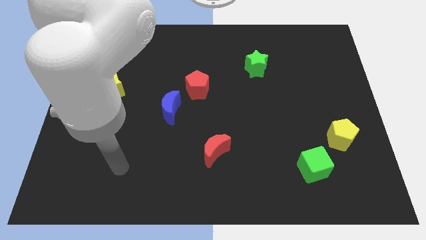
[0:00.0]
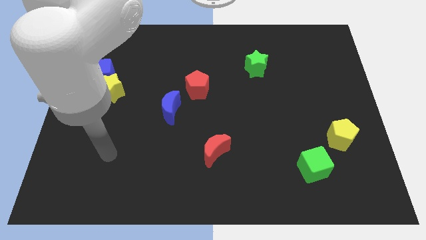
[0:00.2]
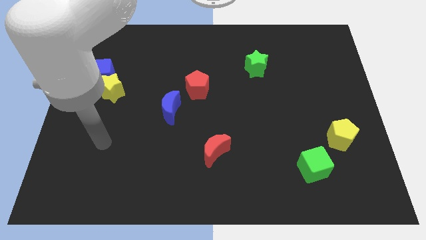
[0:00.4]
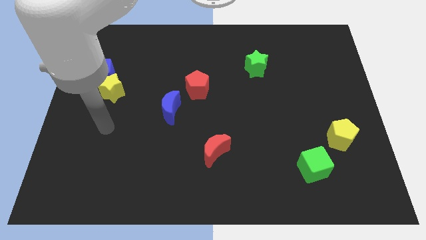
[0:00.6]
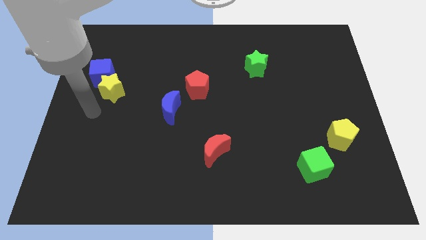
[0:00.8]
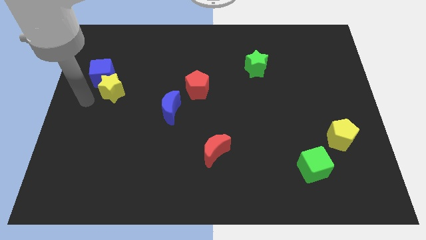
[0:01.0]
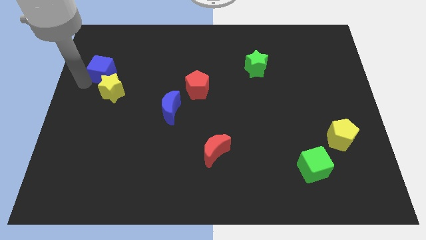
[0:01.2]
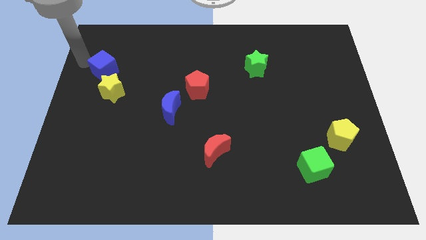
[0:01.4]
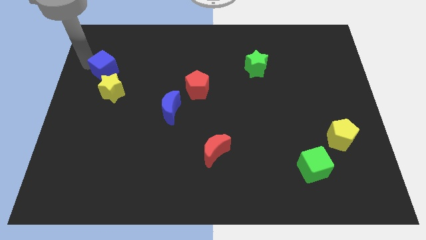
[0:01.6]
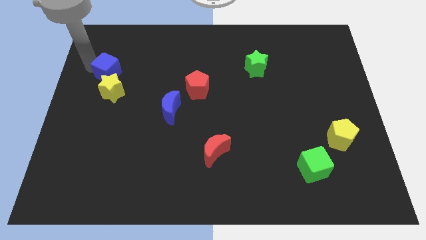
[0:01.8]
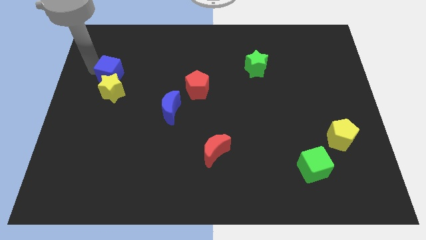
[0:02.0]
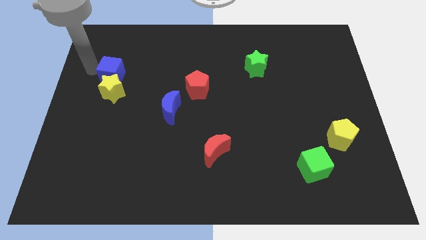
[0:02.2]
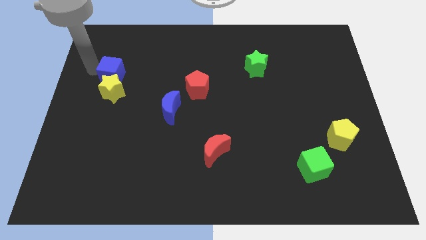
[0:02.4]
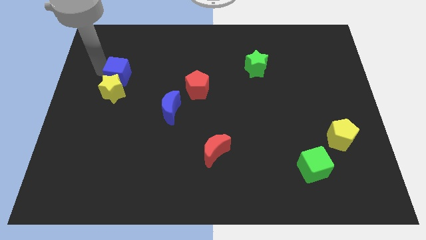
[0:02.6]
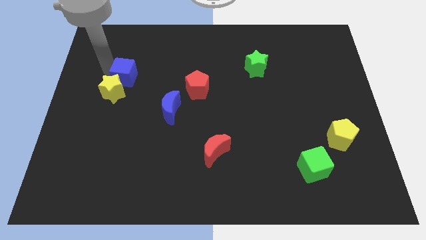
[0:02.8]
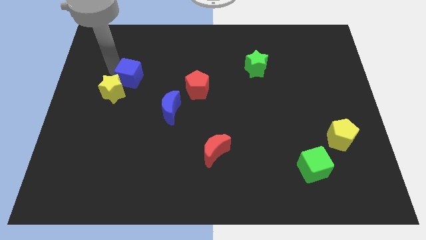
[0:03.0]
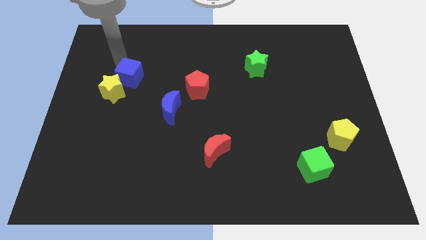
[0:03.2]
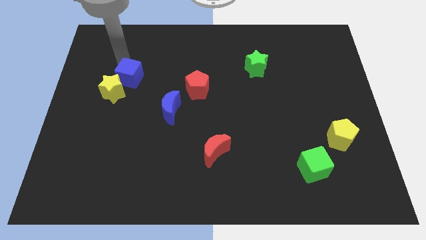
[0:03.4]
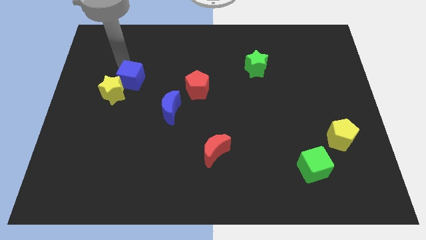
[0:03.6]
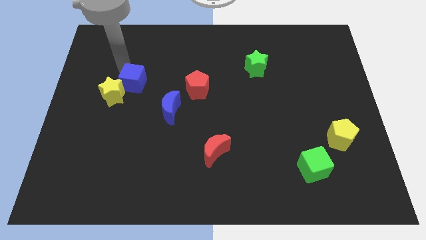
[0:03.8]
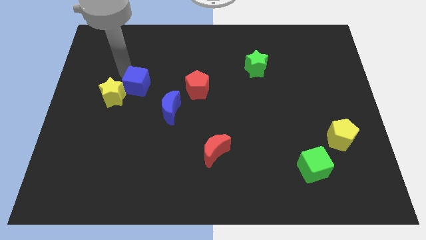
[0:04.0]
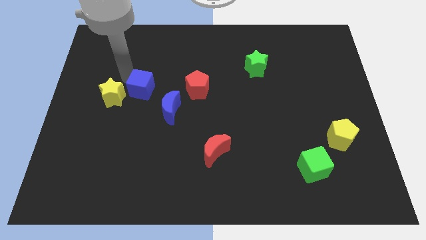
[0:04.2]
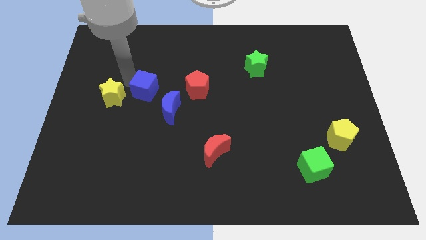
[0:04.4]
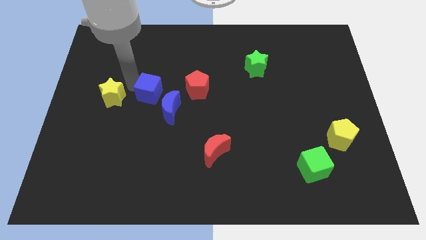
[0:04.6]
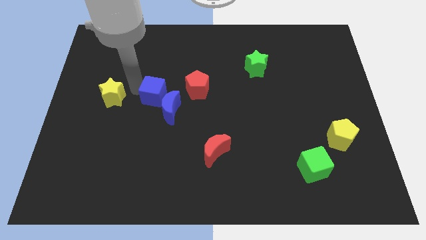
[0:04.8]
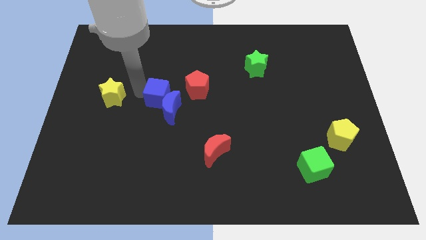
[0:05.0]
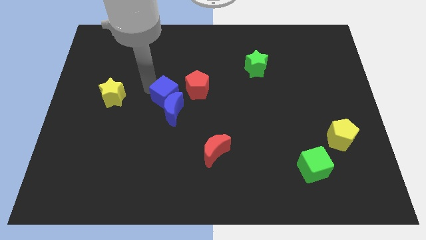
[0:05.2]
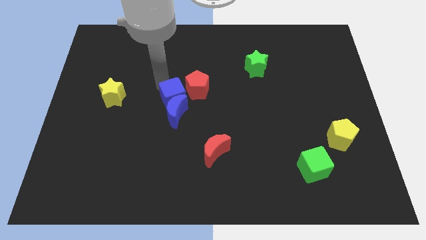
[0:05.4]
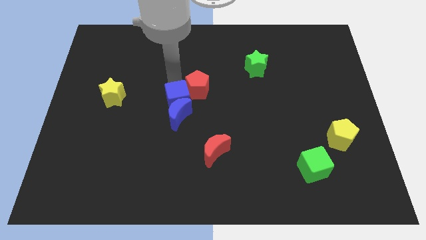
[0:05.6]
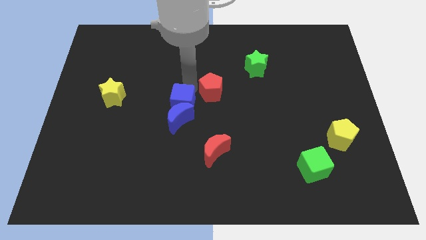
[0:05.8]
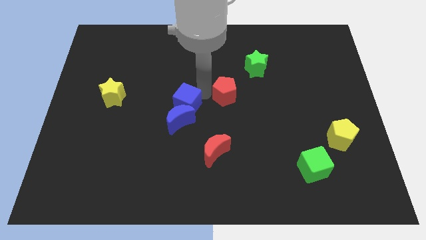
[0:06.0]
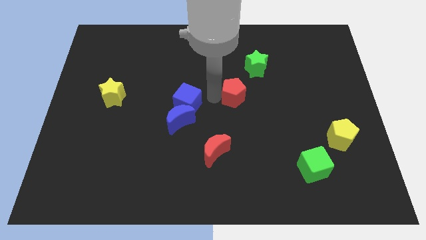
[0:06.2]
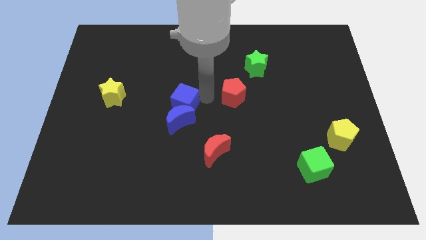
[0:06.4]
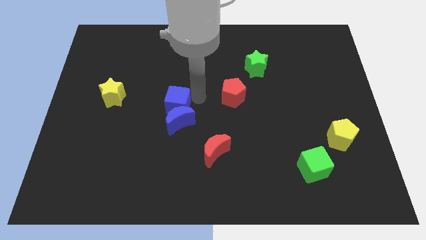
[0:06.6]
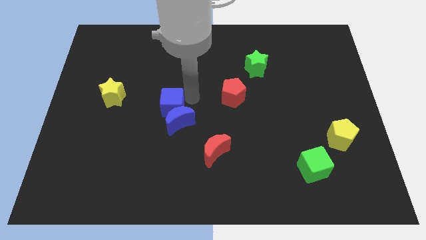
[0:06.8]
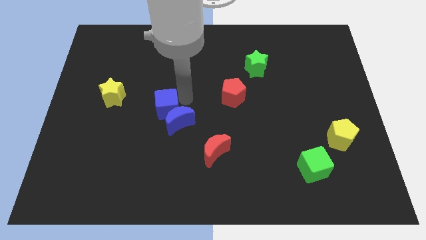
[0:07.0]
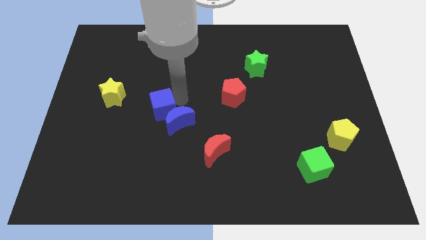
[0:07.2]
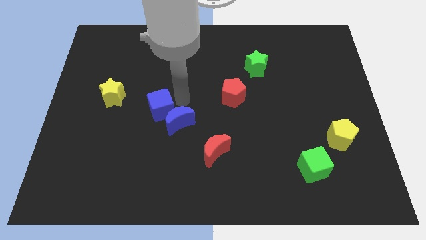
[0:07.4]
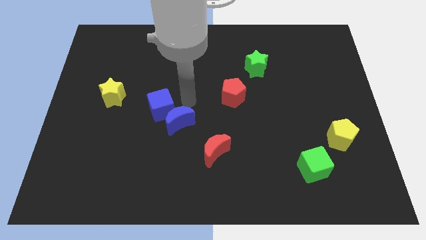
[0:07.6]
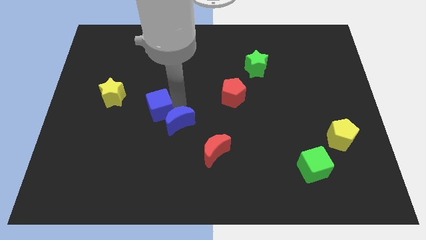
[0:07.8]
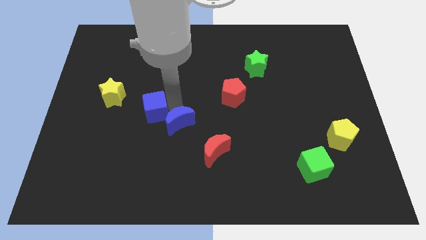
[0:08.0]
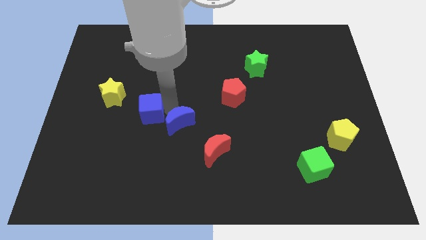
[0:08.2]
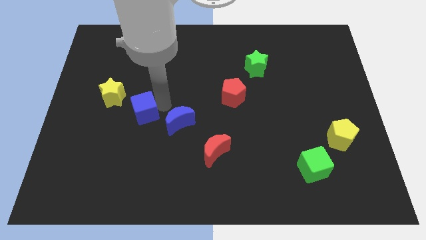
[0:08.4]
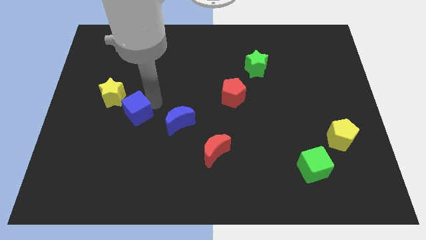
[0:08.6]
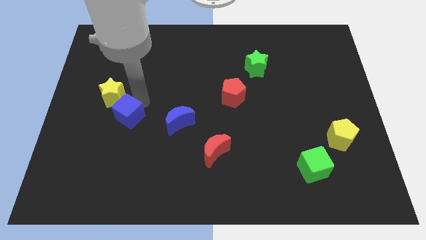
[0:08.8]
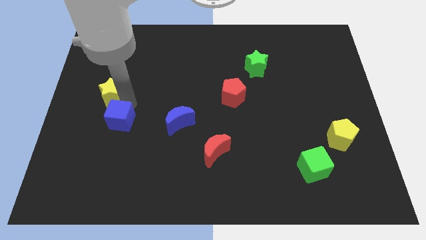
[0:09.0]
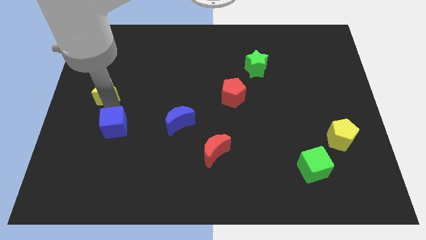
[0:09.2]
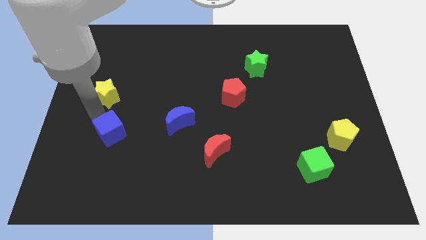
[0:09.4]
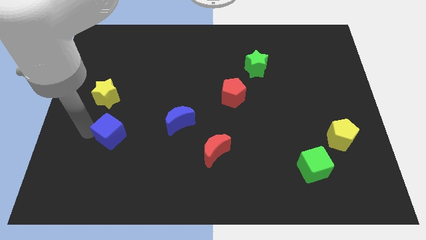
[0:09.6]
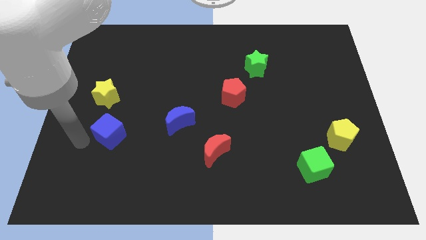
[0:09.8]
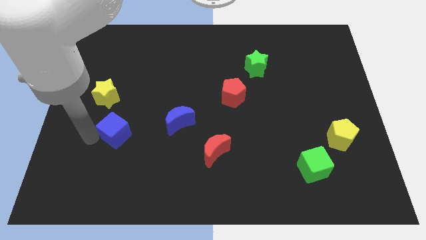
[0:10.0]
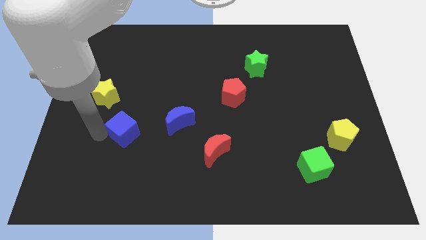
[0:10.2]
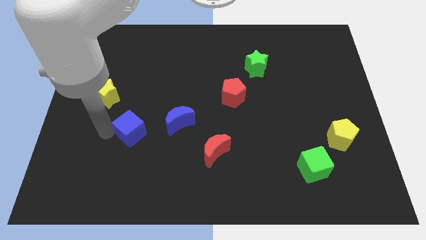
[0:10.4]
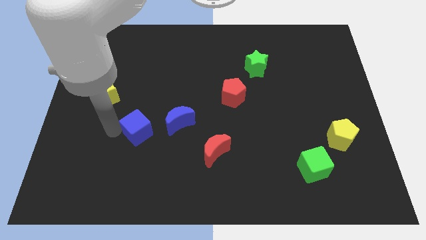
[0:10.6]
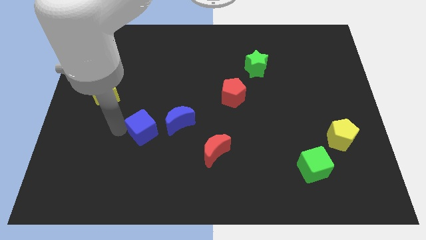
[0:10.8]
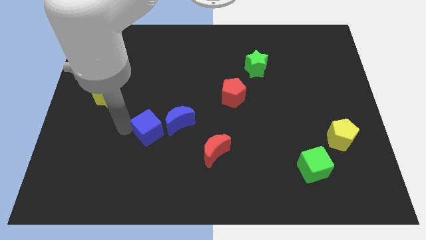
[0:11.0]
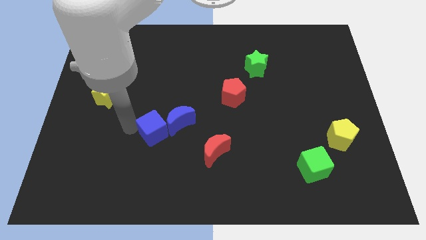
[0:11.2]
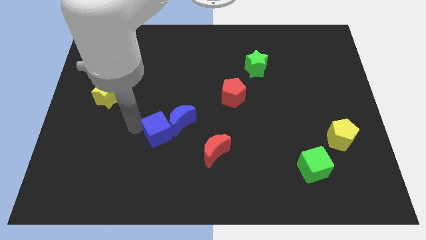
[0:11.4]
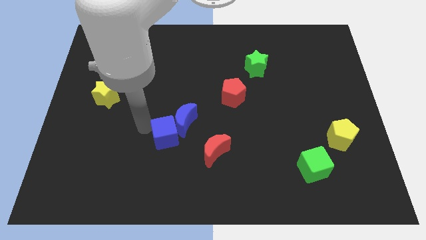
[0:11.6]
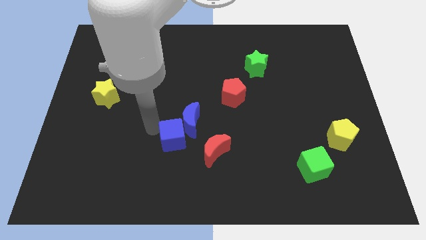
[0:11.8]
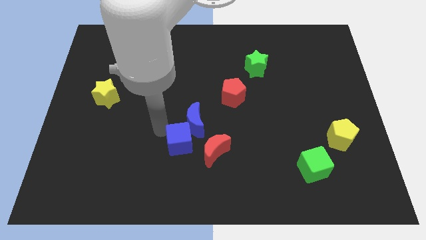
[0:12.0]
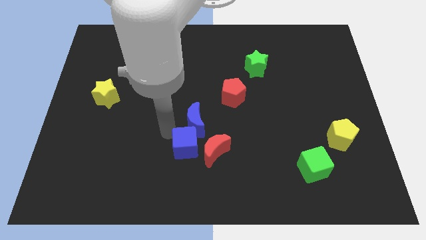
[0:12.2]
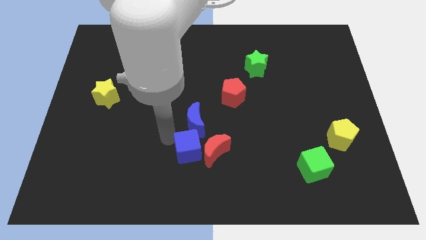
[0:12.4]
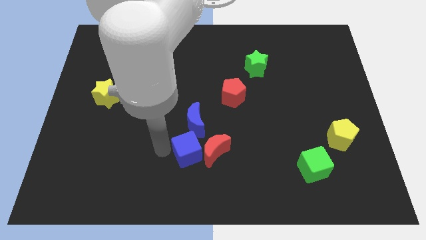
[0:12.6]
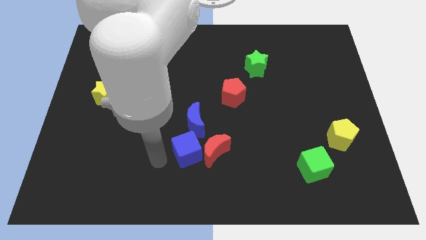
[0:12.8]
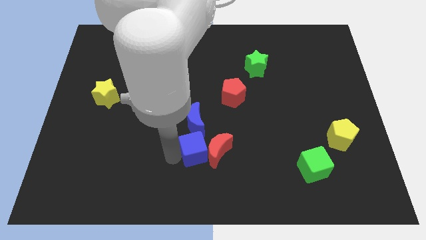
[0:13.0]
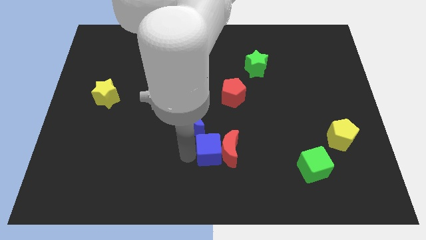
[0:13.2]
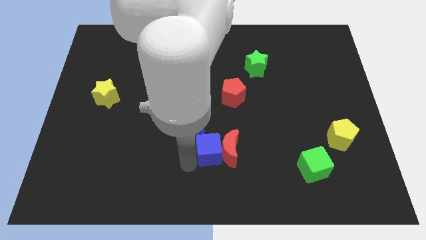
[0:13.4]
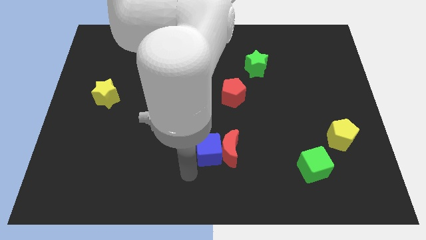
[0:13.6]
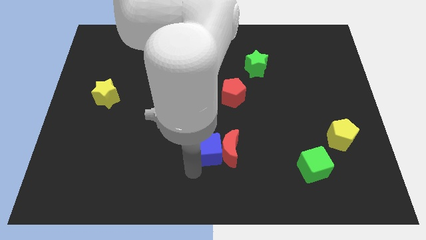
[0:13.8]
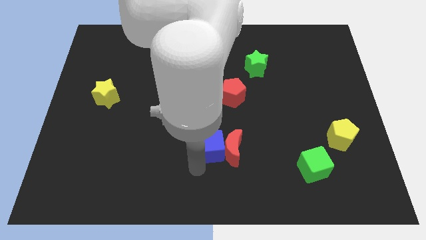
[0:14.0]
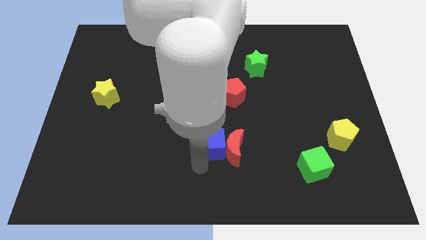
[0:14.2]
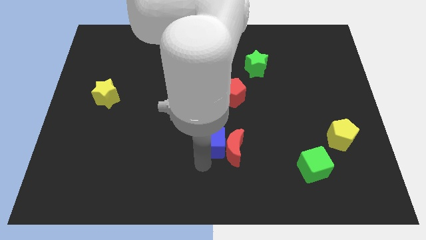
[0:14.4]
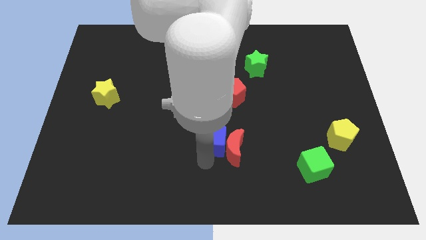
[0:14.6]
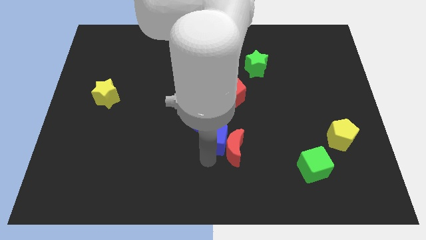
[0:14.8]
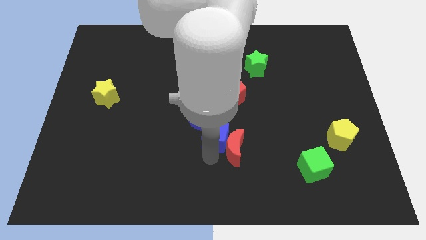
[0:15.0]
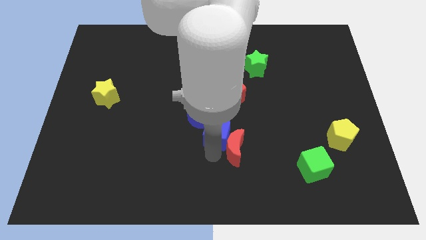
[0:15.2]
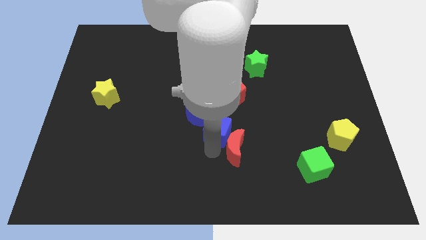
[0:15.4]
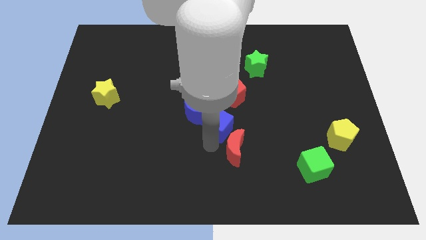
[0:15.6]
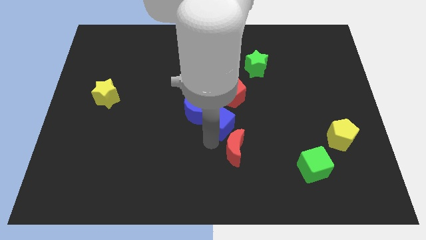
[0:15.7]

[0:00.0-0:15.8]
push the blue cube to the bottom right of the blue moon
